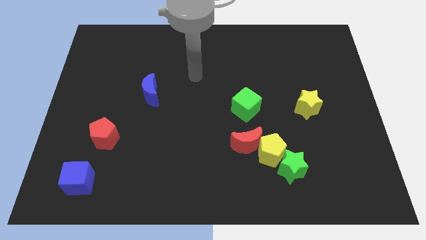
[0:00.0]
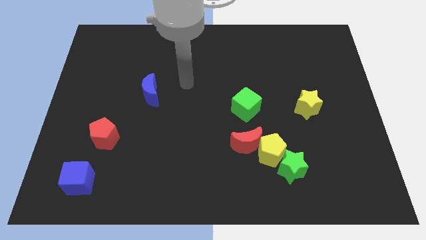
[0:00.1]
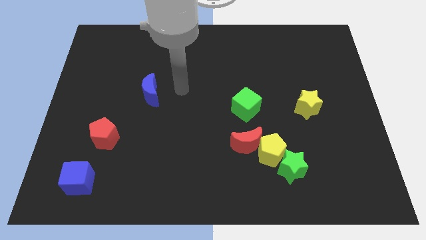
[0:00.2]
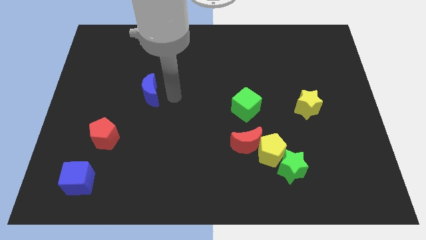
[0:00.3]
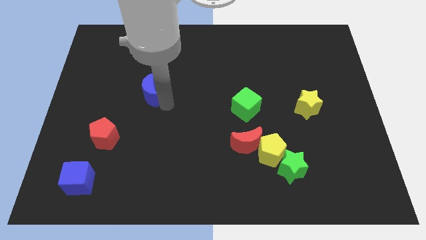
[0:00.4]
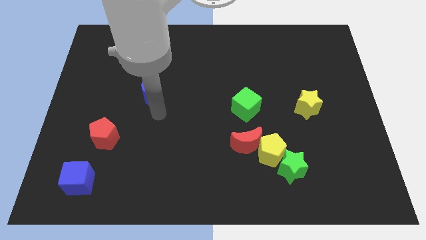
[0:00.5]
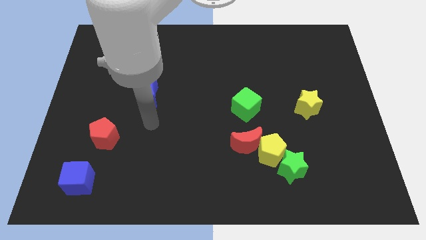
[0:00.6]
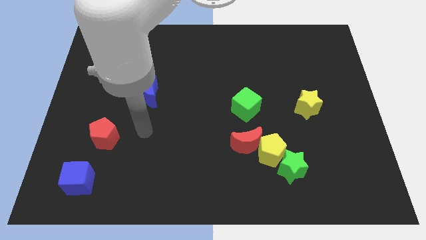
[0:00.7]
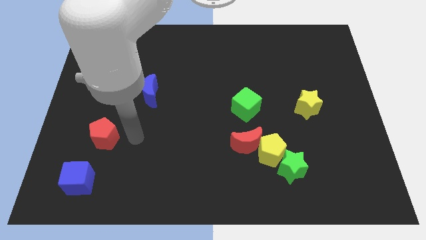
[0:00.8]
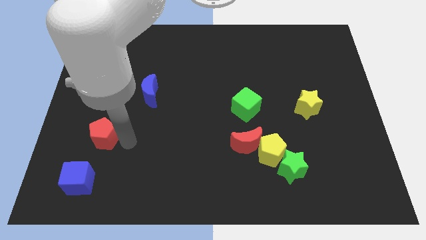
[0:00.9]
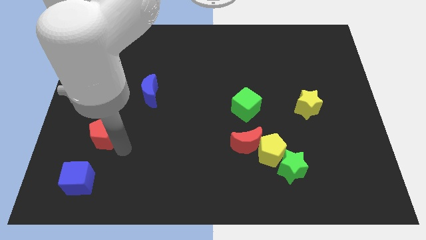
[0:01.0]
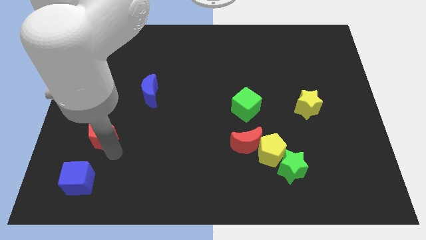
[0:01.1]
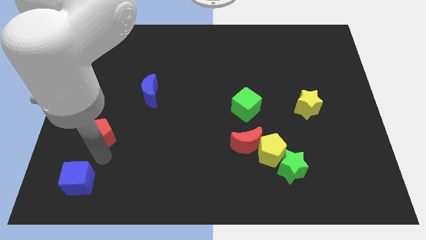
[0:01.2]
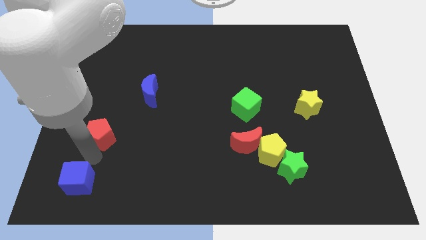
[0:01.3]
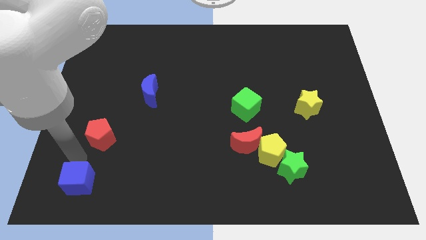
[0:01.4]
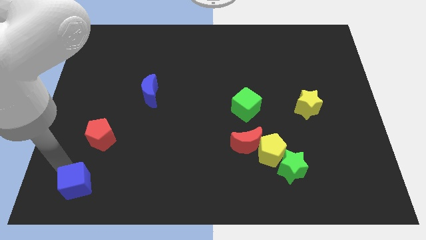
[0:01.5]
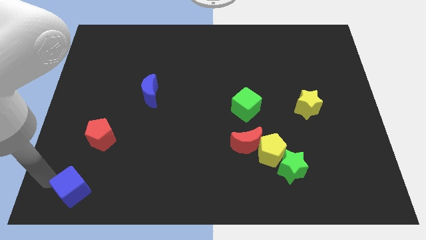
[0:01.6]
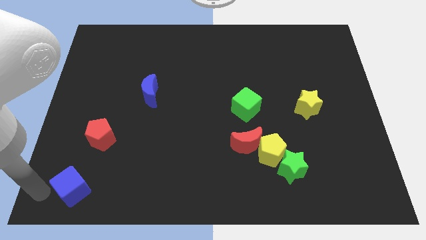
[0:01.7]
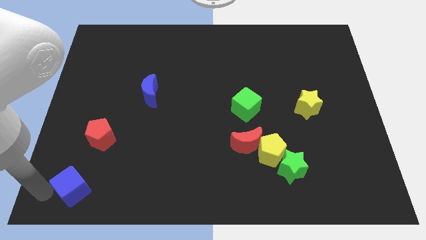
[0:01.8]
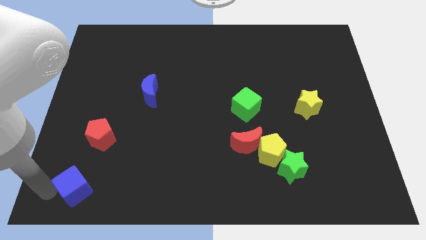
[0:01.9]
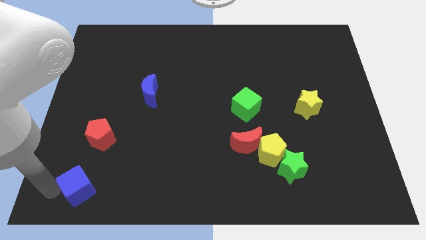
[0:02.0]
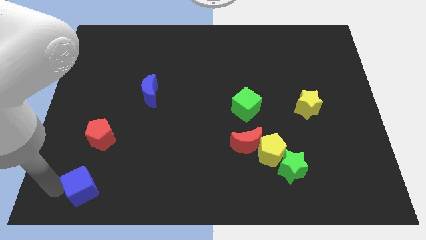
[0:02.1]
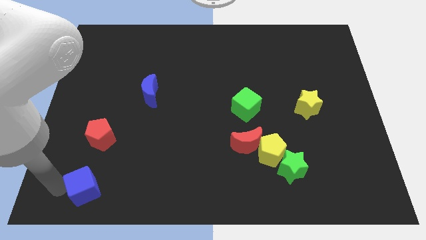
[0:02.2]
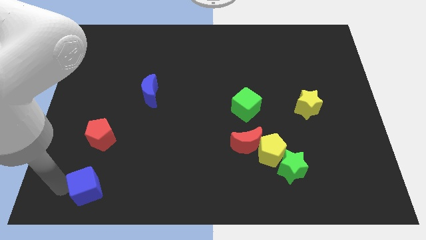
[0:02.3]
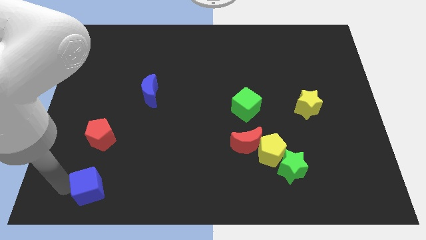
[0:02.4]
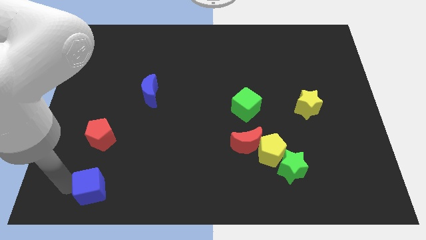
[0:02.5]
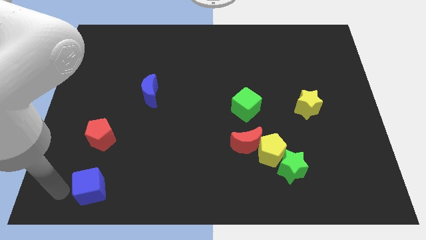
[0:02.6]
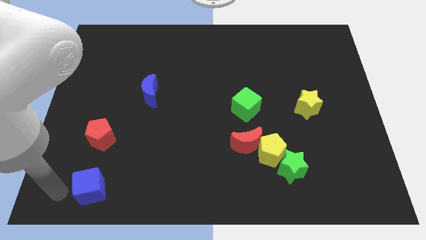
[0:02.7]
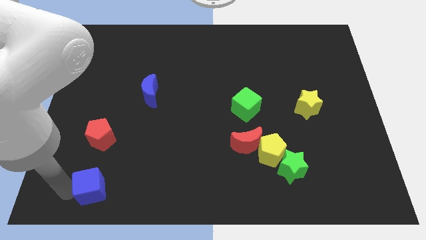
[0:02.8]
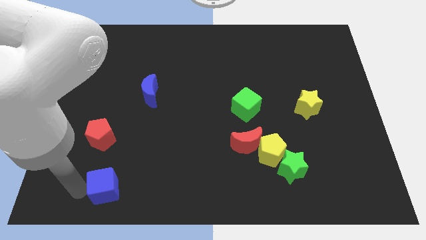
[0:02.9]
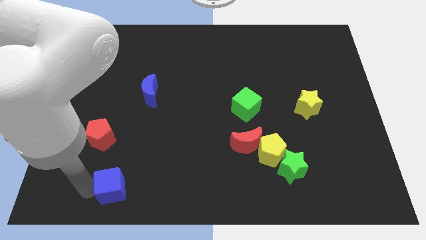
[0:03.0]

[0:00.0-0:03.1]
move the blue cube a little right

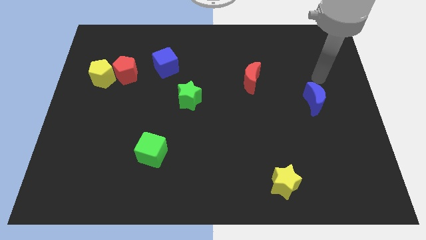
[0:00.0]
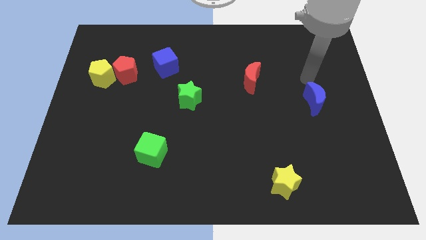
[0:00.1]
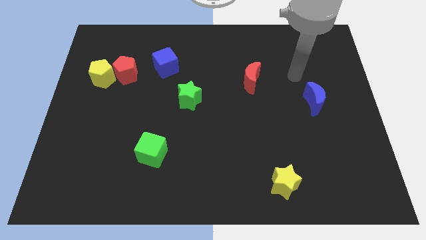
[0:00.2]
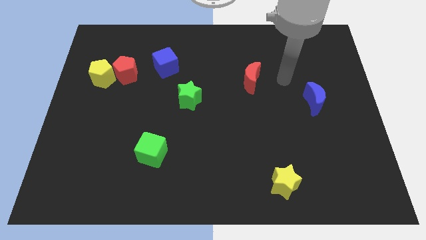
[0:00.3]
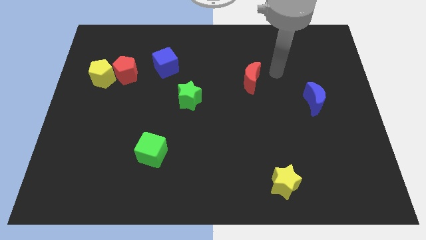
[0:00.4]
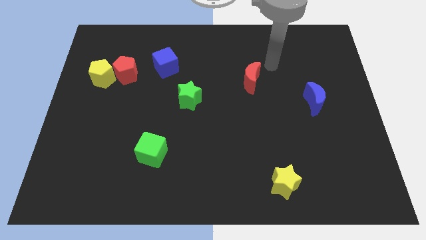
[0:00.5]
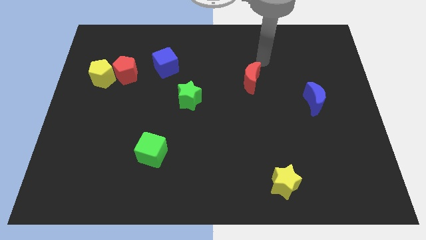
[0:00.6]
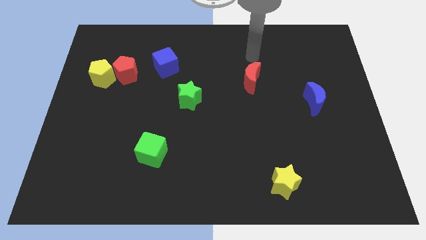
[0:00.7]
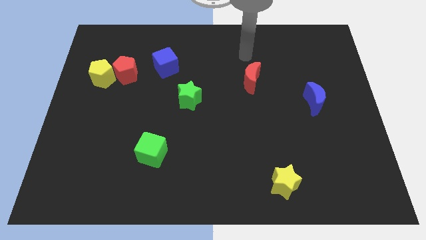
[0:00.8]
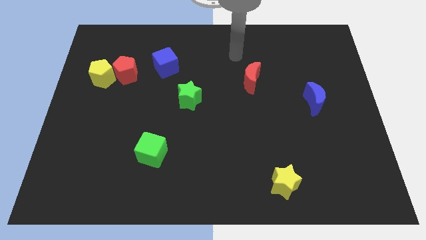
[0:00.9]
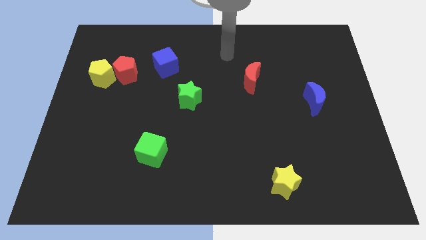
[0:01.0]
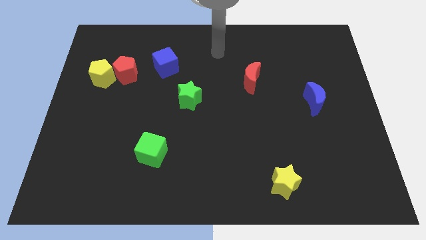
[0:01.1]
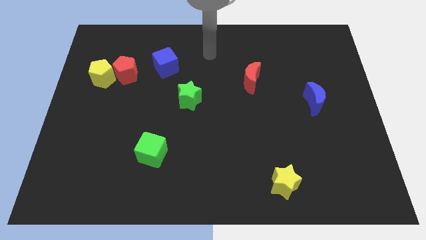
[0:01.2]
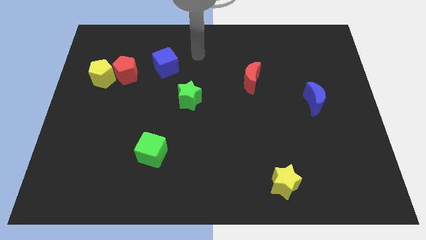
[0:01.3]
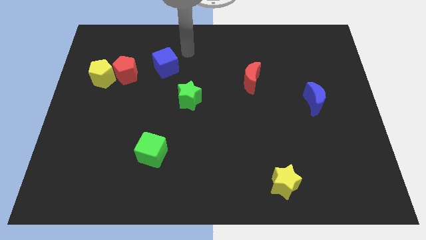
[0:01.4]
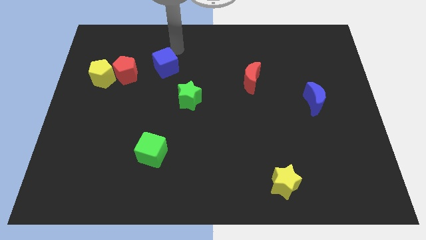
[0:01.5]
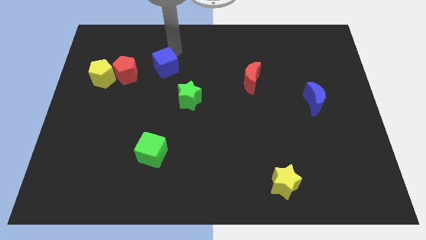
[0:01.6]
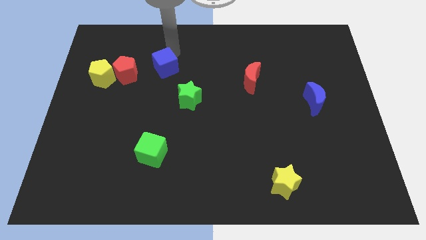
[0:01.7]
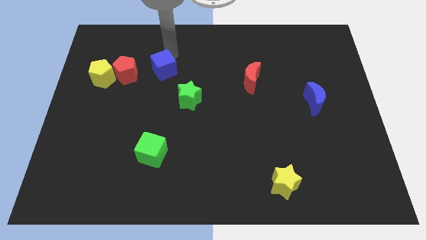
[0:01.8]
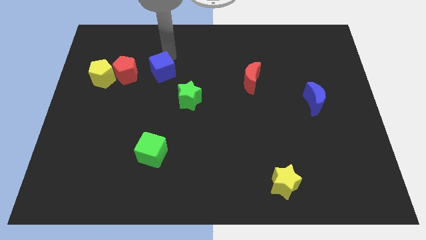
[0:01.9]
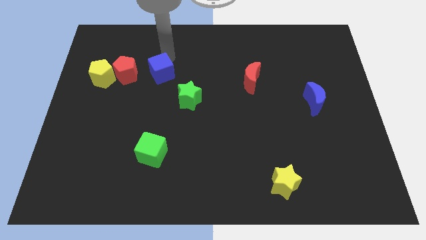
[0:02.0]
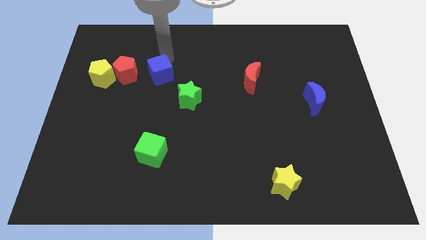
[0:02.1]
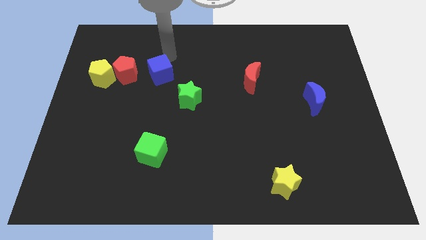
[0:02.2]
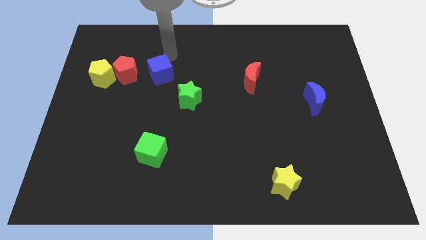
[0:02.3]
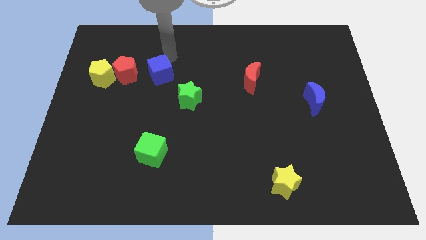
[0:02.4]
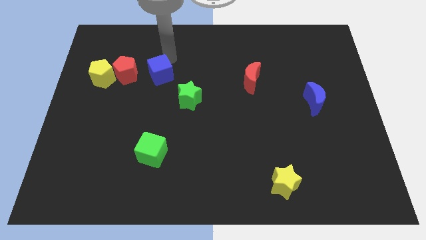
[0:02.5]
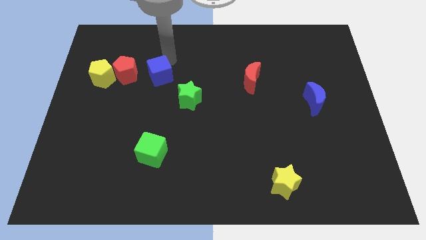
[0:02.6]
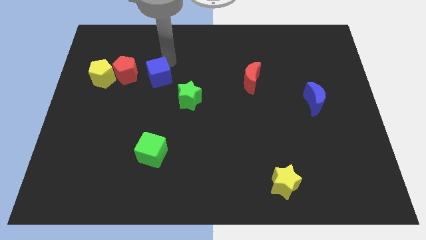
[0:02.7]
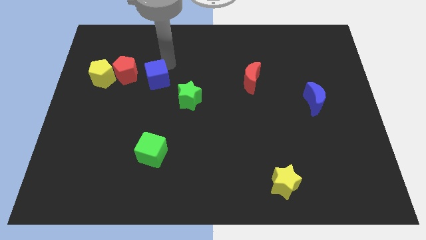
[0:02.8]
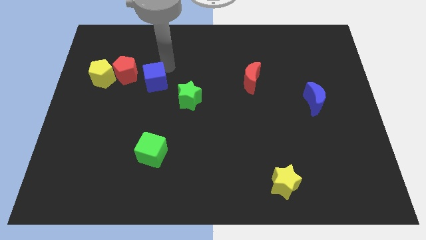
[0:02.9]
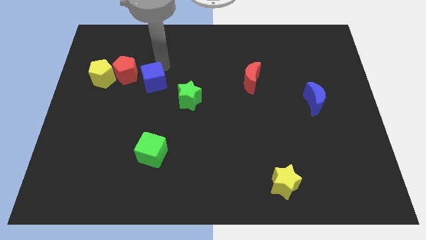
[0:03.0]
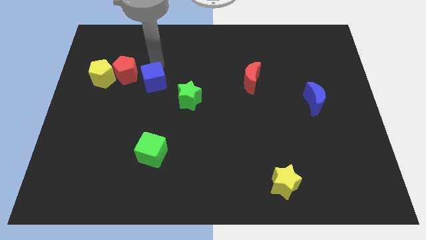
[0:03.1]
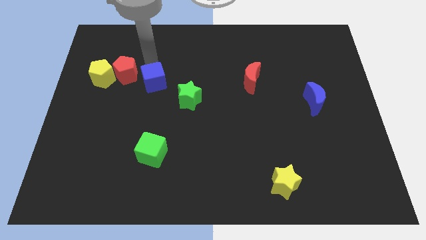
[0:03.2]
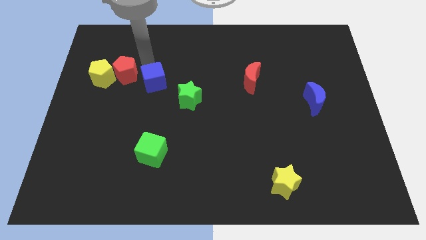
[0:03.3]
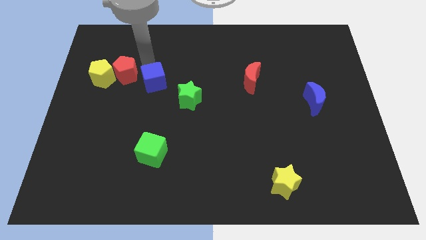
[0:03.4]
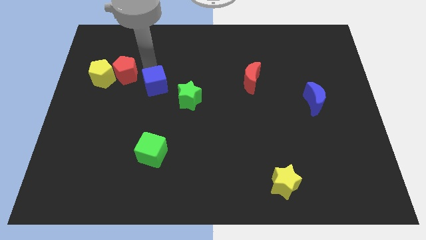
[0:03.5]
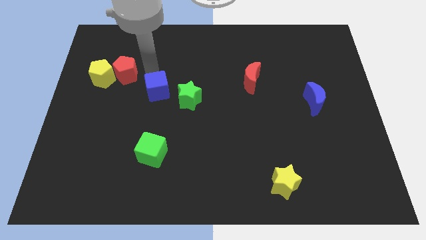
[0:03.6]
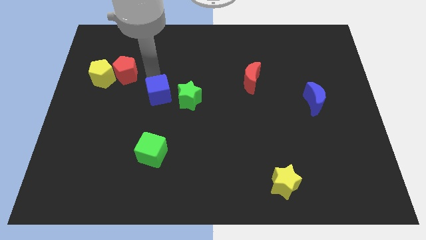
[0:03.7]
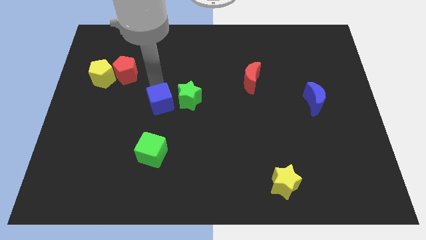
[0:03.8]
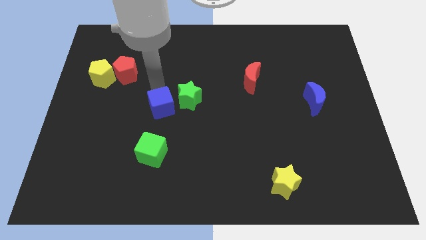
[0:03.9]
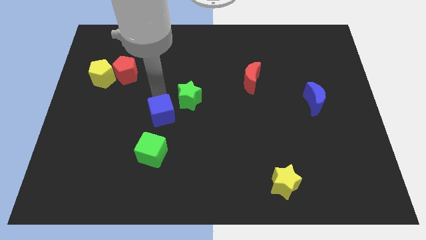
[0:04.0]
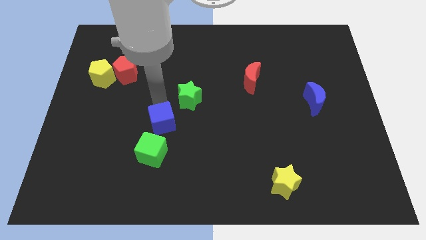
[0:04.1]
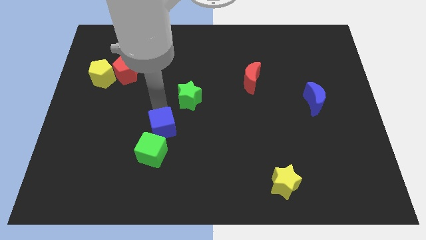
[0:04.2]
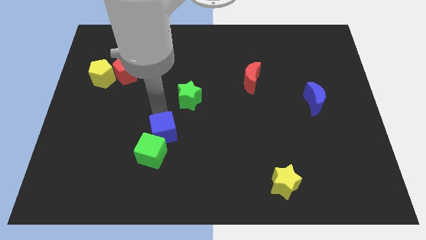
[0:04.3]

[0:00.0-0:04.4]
slide the blue cube downwards

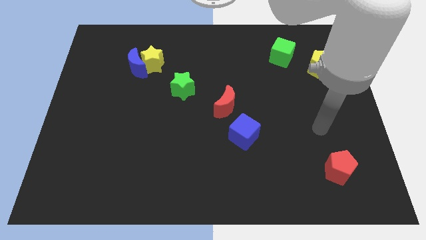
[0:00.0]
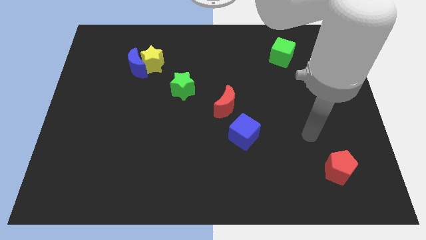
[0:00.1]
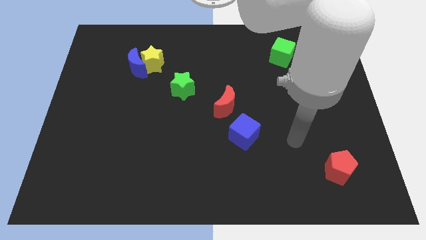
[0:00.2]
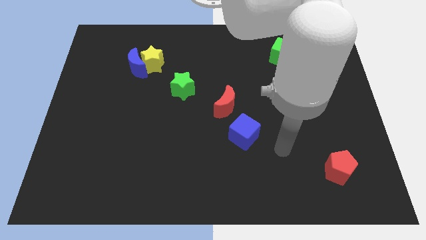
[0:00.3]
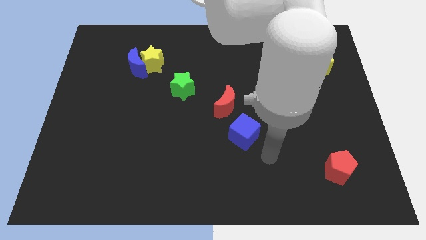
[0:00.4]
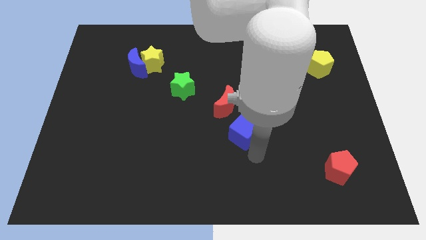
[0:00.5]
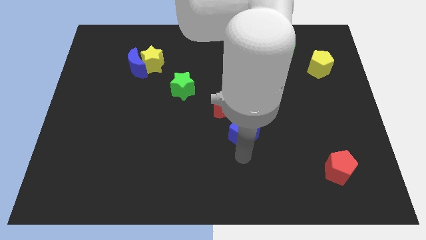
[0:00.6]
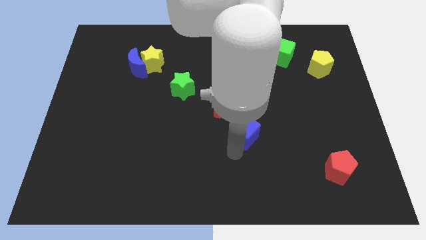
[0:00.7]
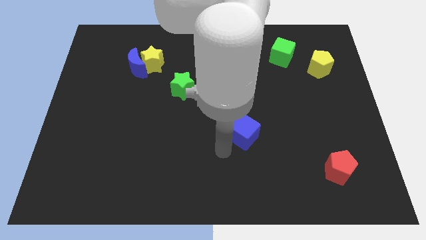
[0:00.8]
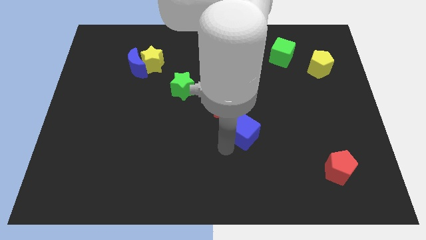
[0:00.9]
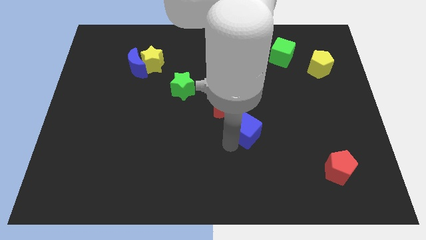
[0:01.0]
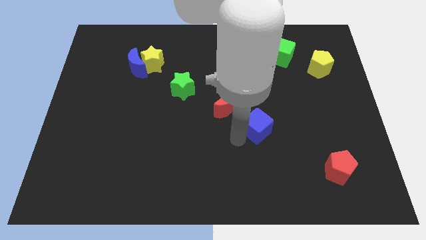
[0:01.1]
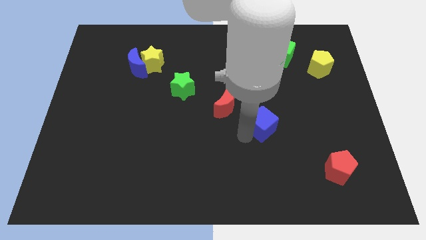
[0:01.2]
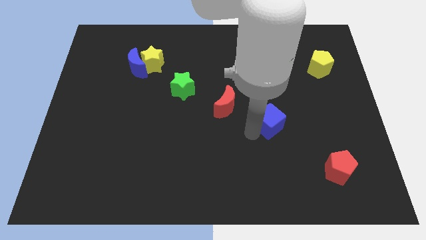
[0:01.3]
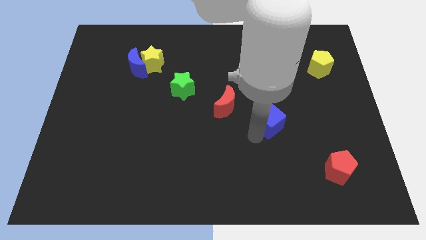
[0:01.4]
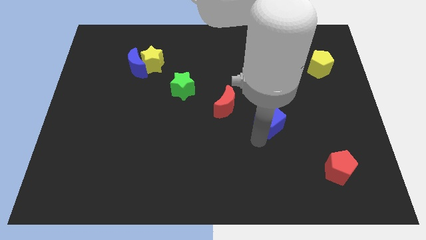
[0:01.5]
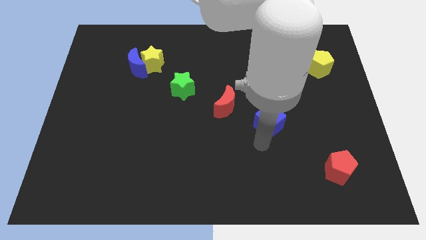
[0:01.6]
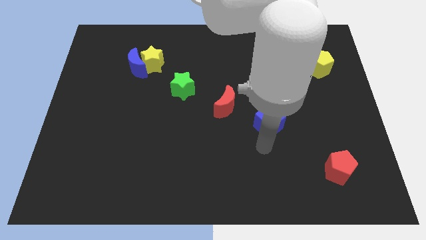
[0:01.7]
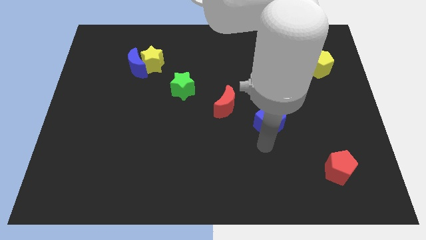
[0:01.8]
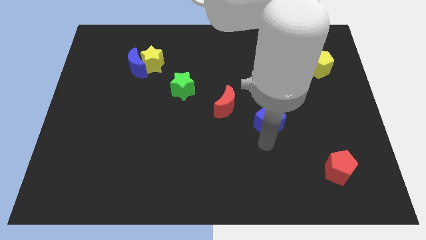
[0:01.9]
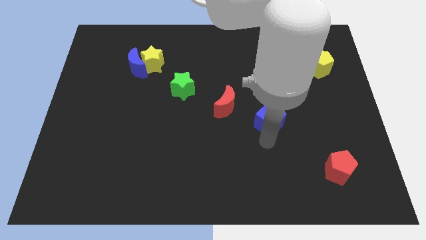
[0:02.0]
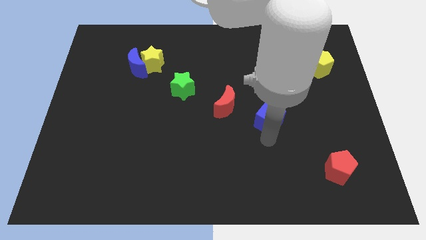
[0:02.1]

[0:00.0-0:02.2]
push the blue cube somewhat up and then to the right
